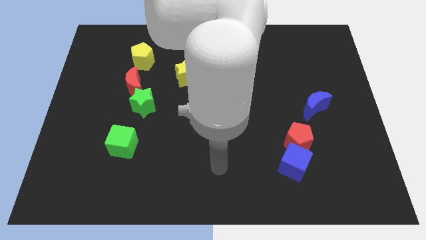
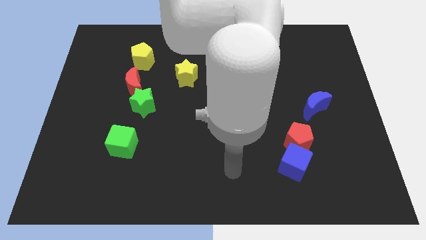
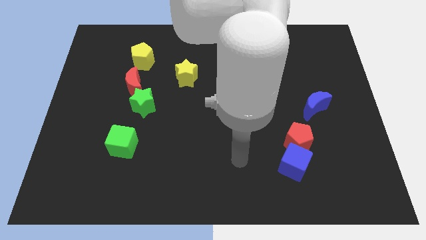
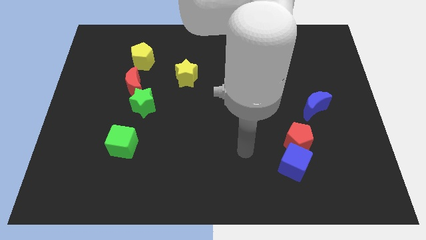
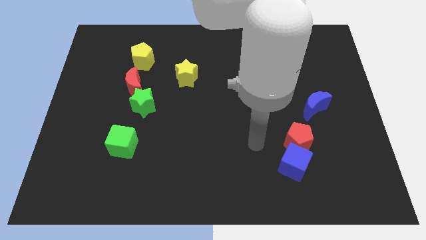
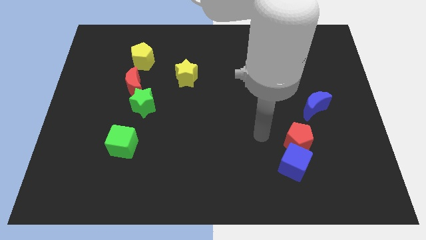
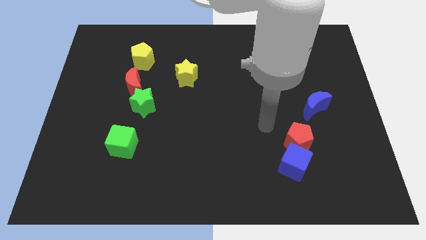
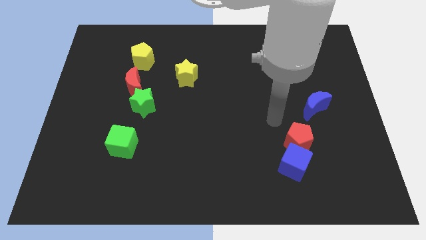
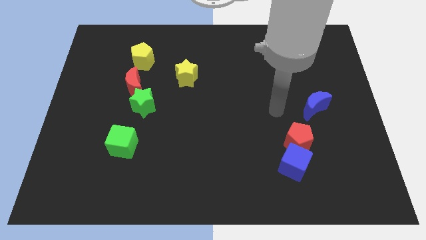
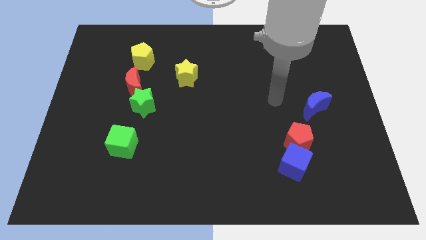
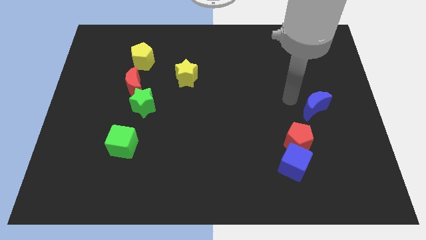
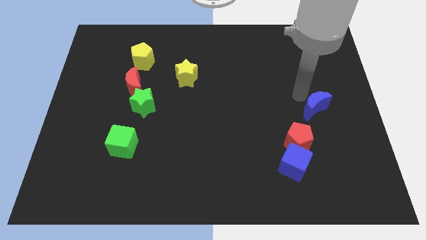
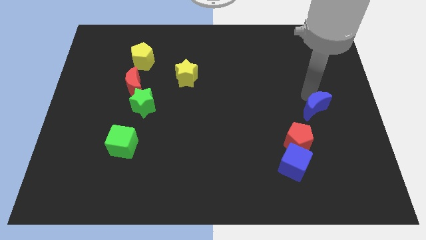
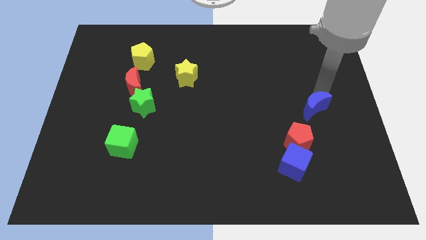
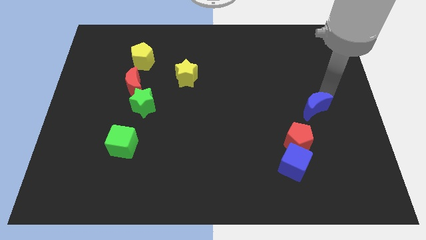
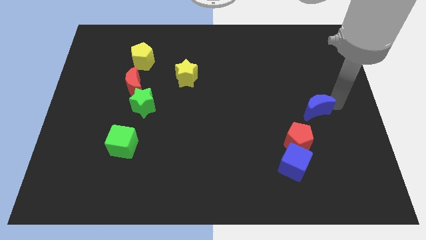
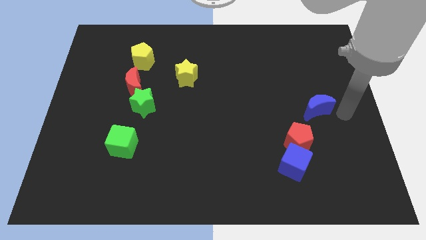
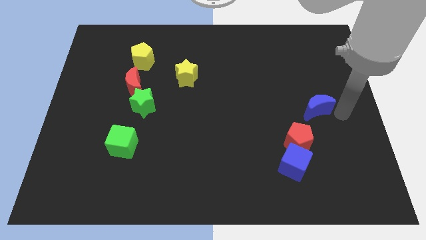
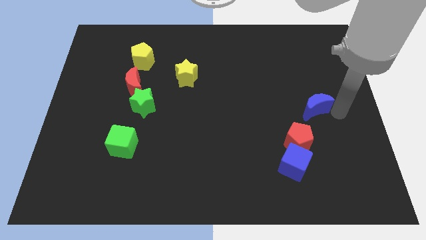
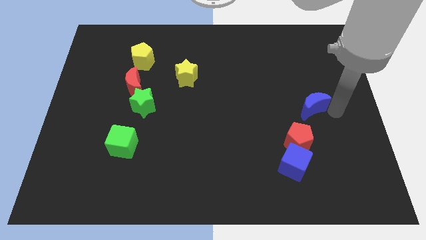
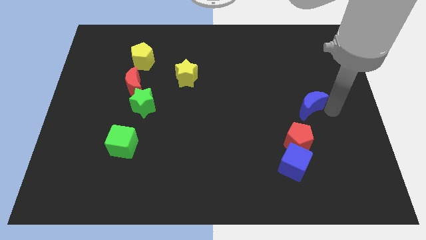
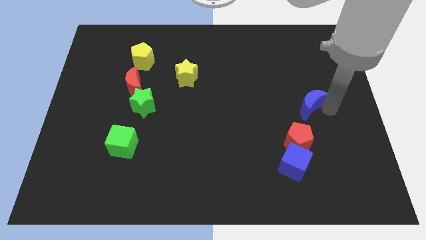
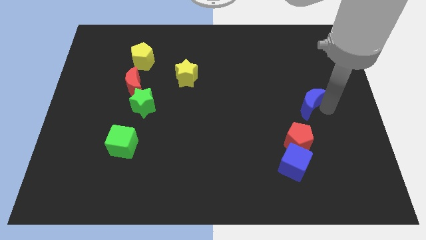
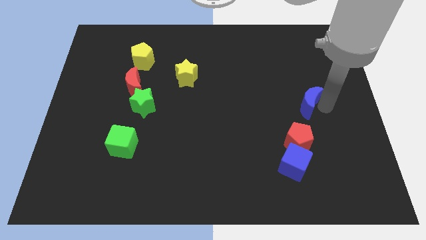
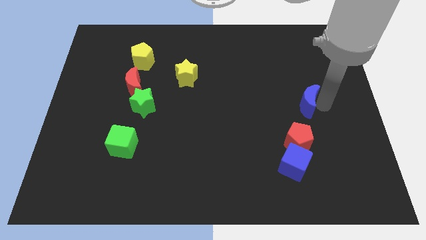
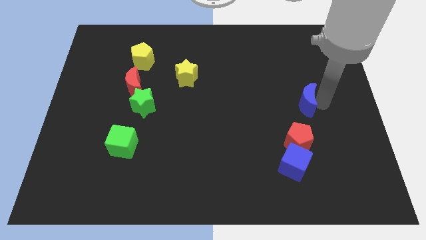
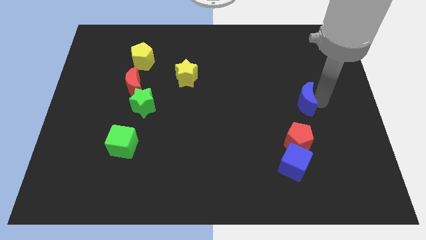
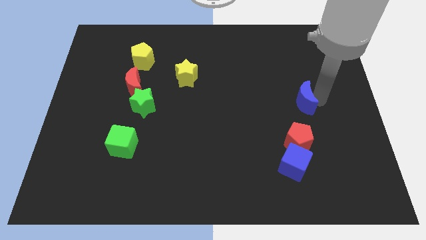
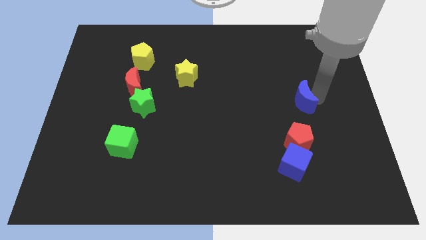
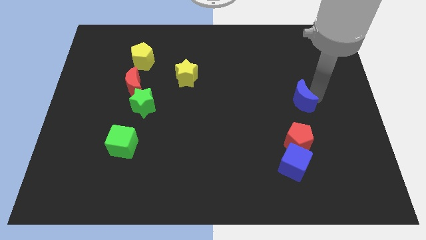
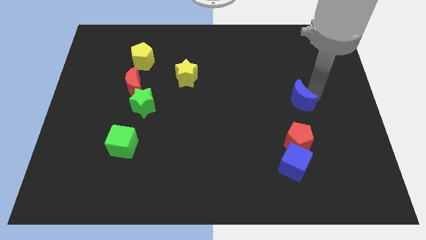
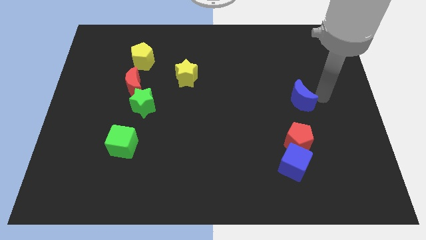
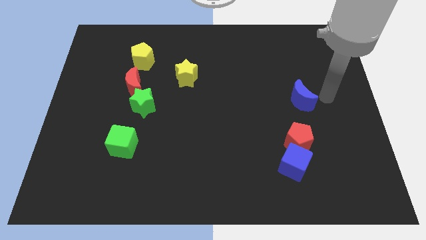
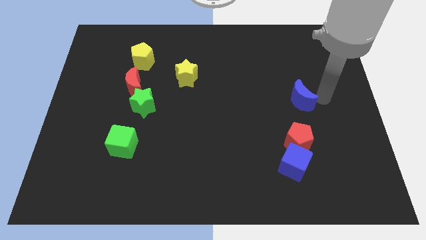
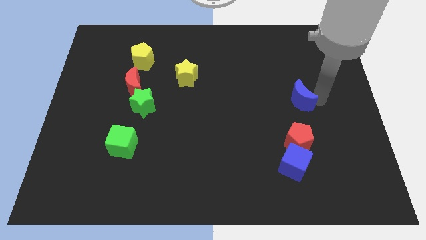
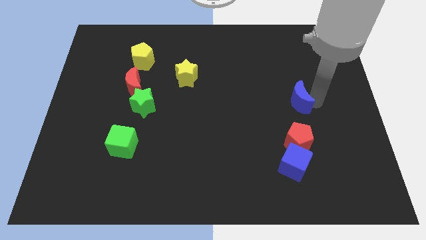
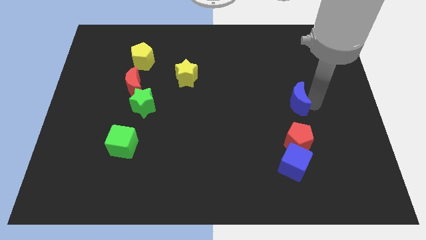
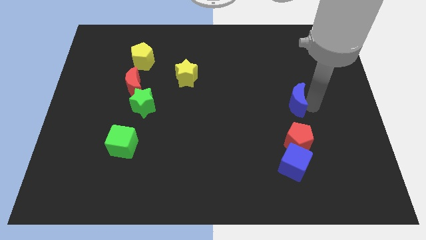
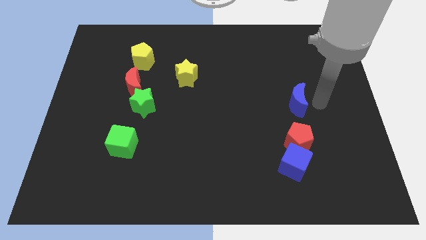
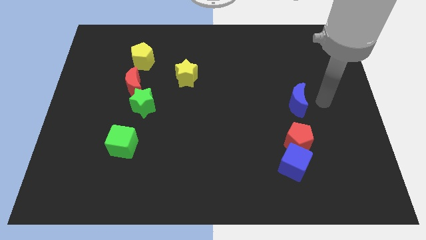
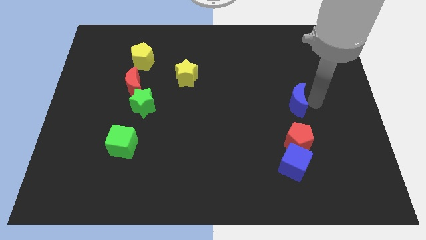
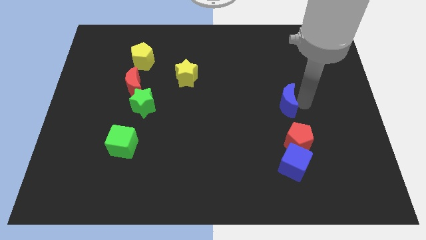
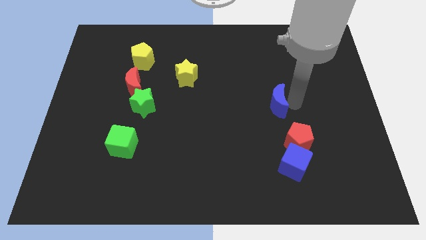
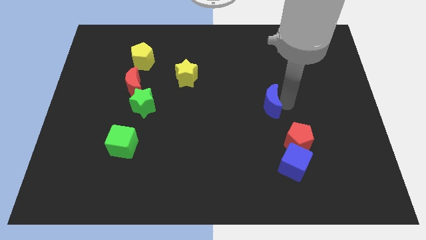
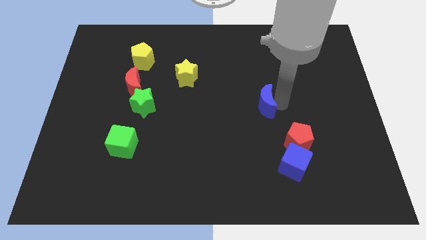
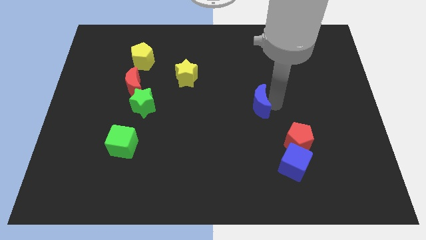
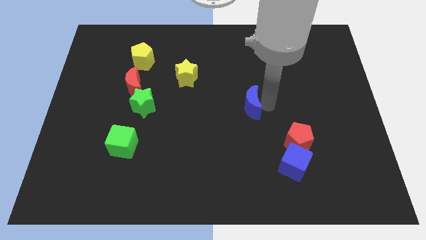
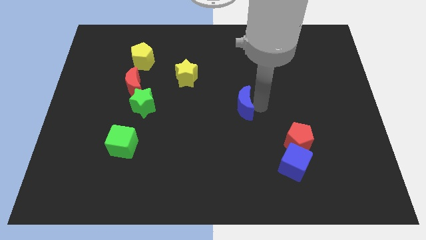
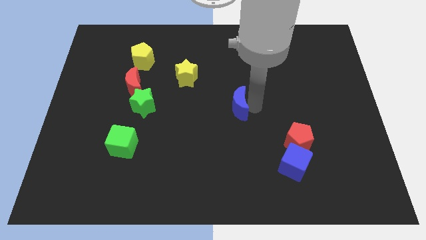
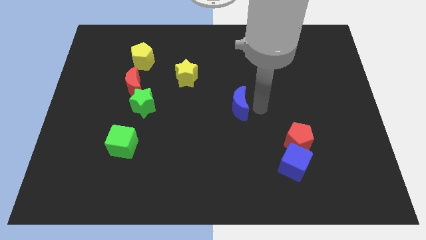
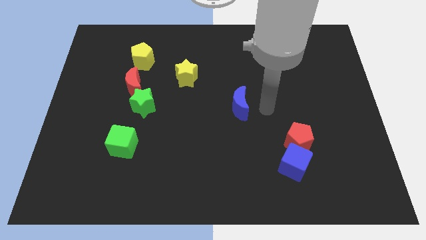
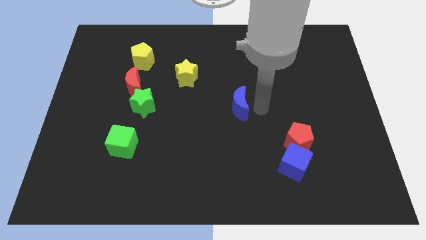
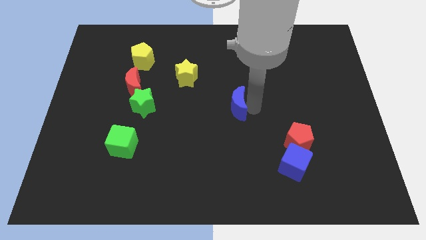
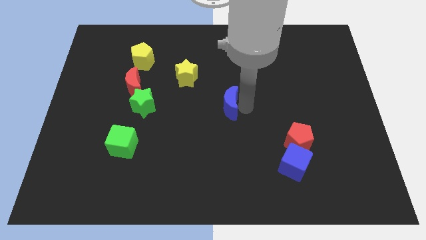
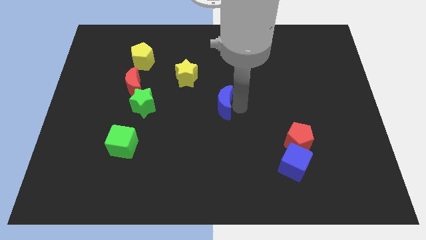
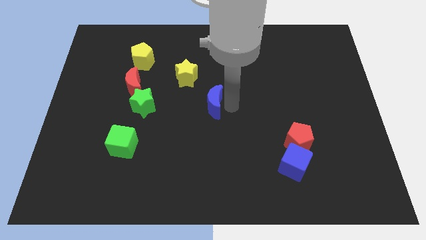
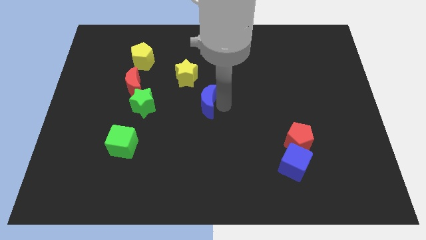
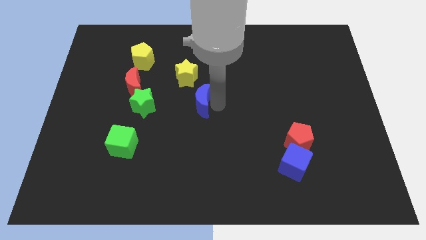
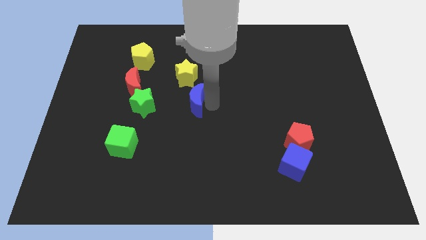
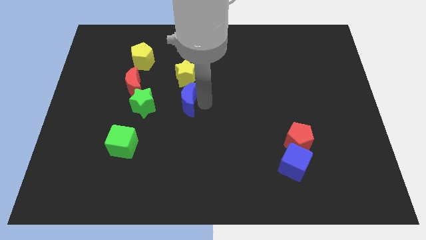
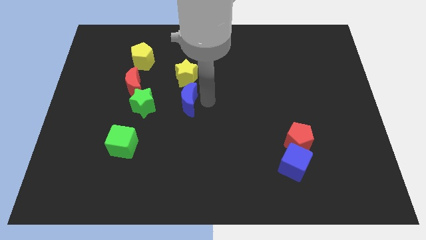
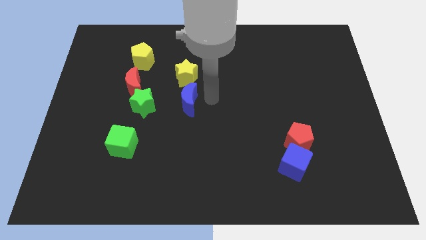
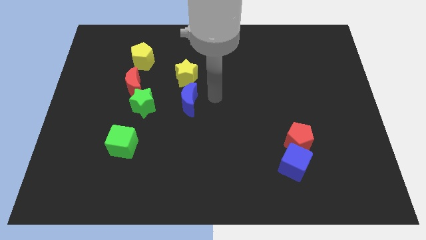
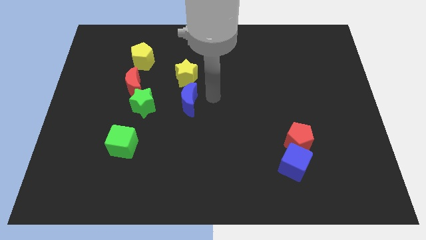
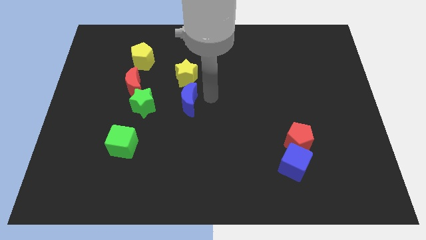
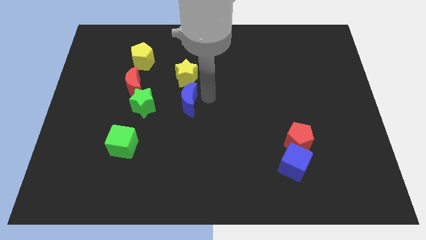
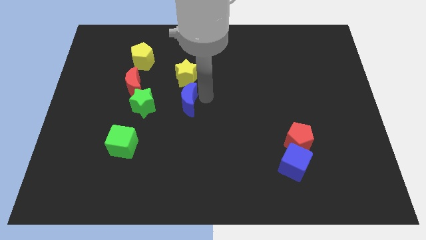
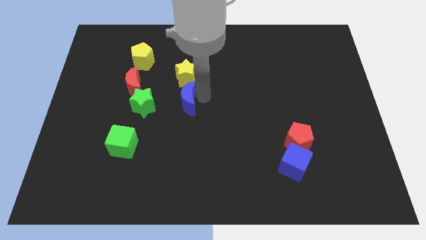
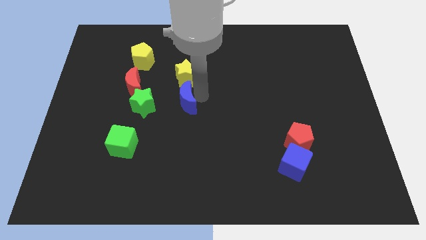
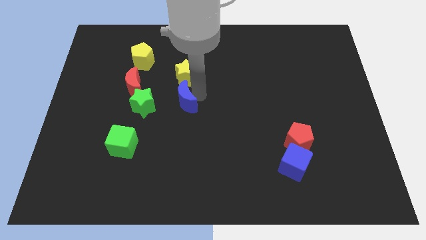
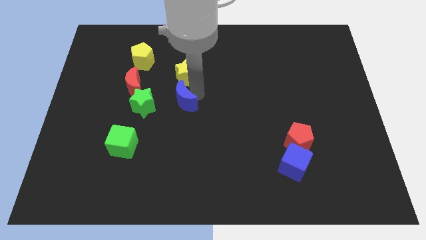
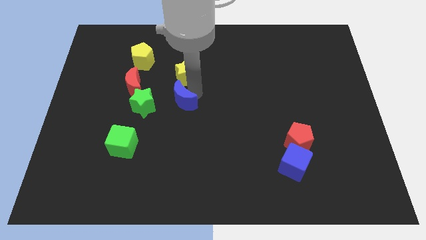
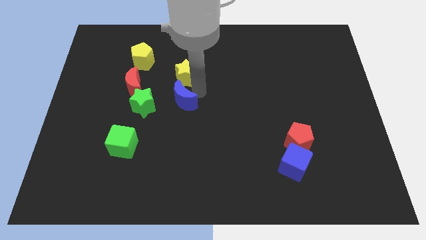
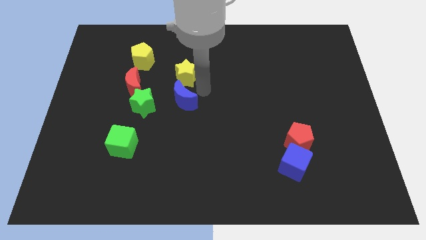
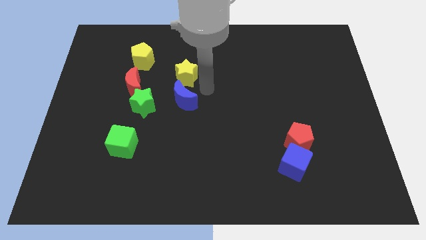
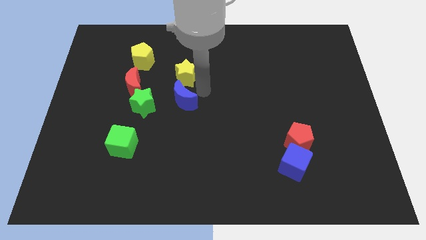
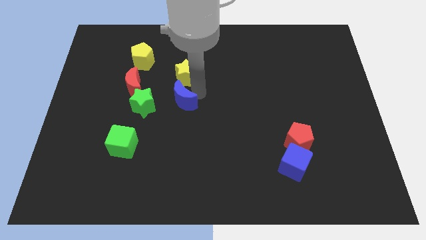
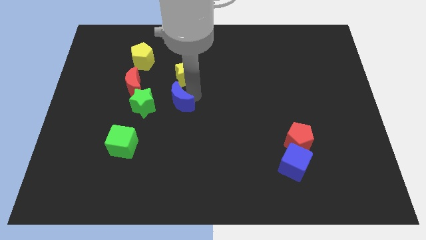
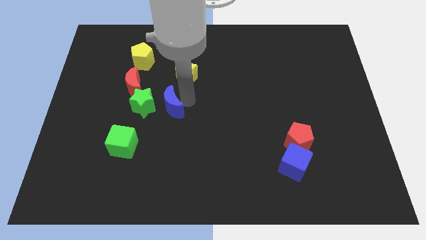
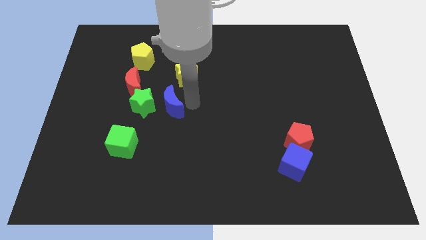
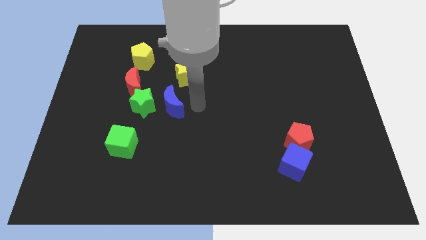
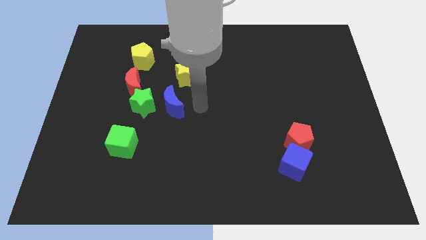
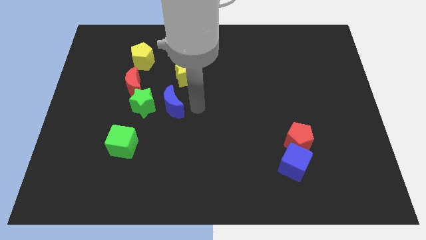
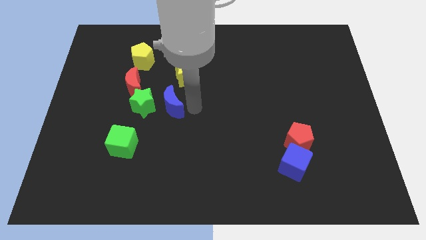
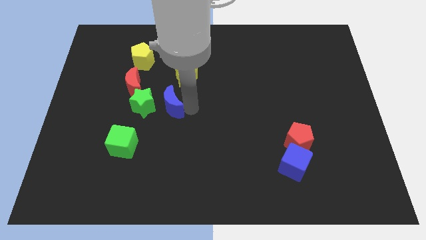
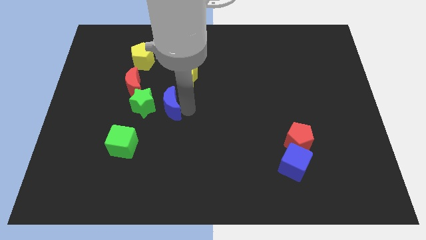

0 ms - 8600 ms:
move the blue moon next to the green star
